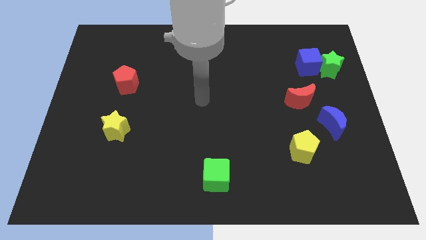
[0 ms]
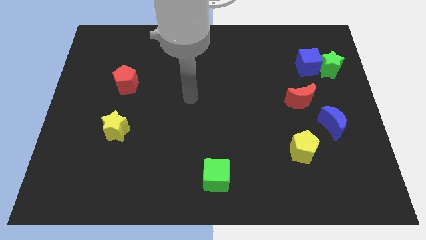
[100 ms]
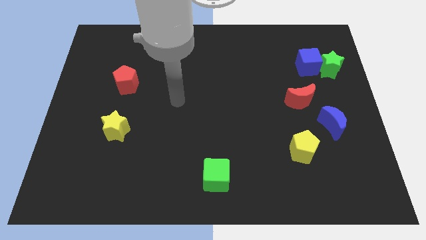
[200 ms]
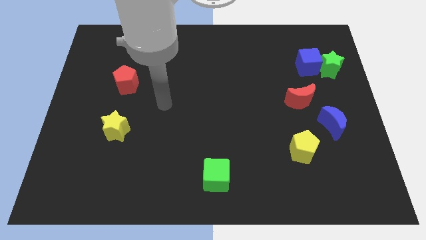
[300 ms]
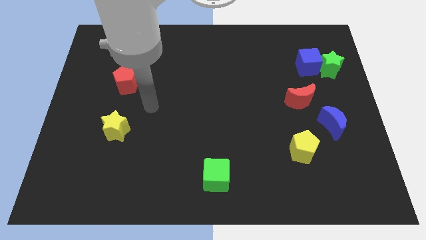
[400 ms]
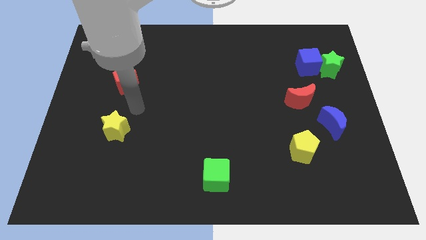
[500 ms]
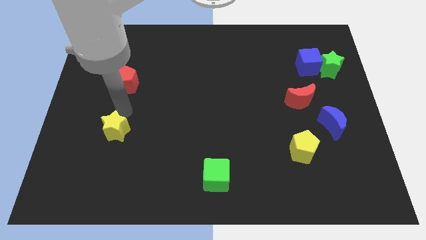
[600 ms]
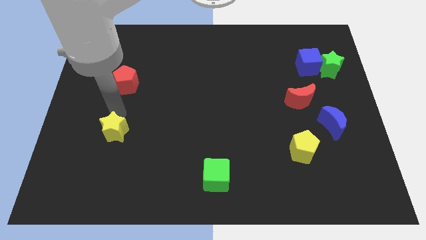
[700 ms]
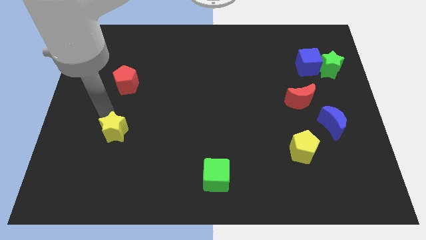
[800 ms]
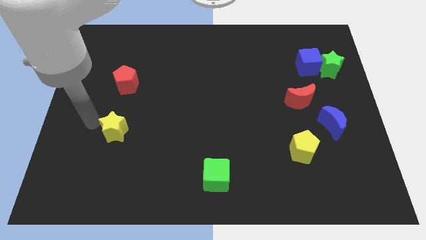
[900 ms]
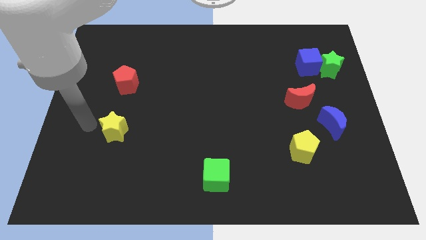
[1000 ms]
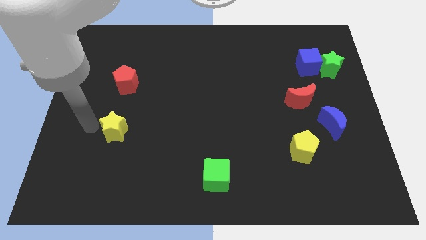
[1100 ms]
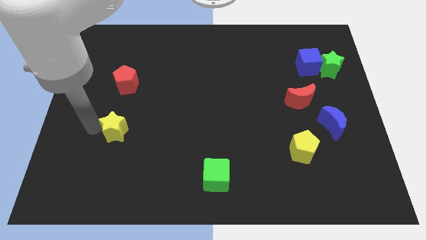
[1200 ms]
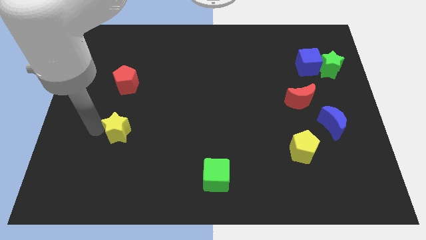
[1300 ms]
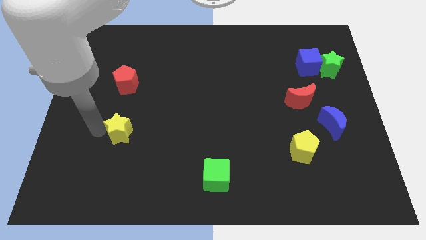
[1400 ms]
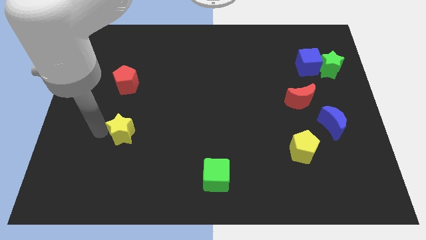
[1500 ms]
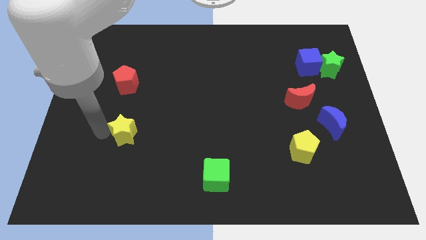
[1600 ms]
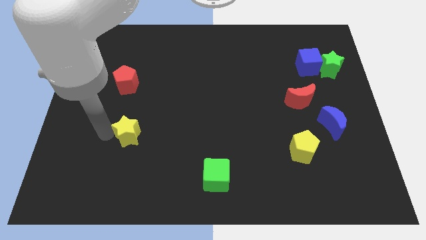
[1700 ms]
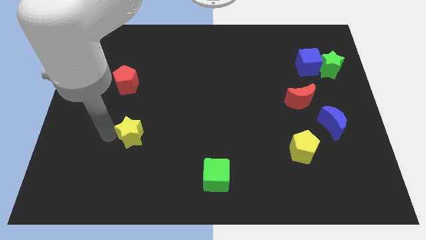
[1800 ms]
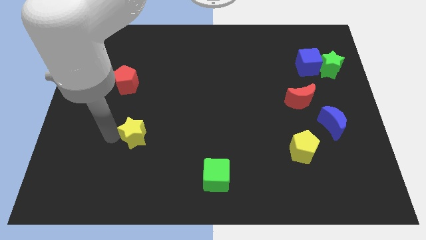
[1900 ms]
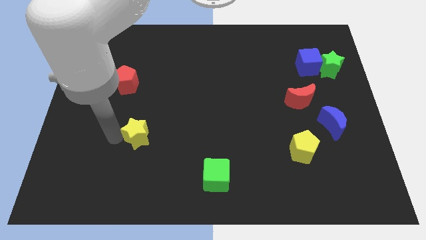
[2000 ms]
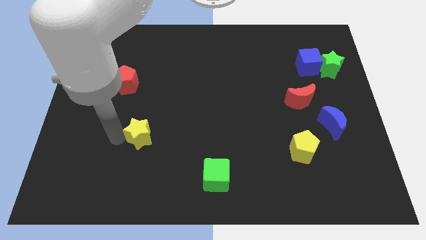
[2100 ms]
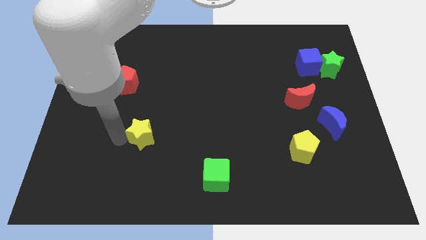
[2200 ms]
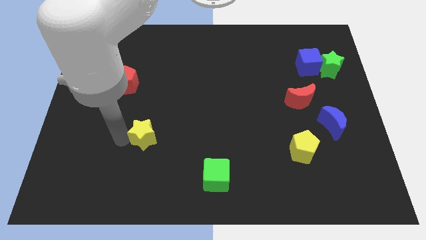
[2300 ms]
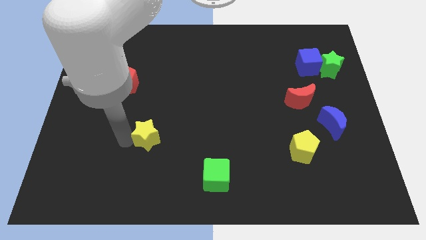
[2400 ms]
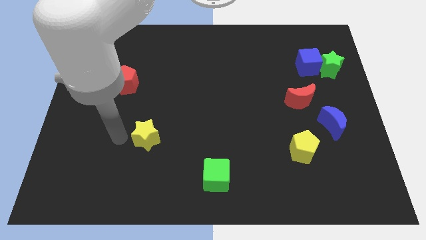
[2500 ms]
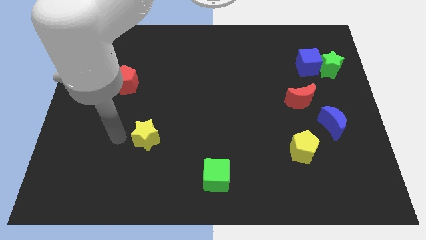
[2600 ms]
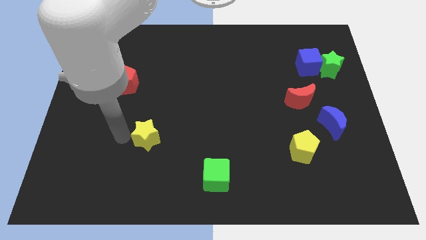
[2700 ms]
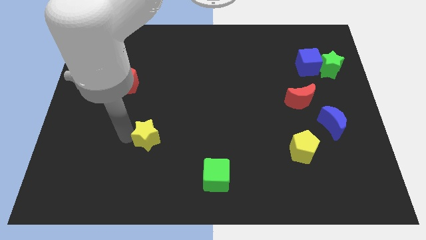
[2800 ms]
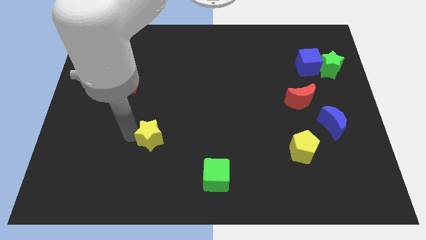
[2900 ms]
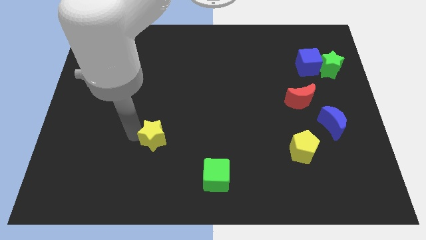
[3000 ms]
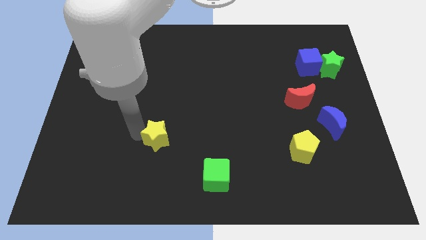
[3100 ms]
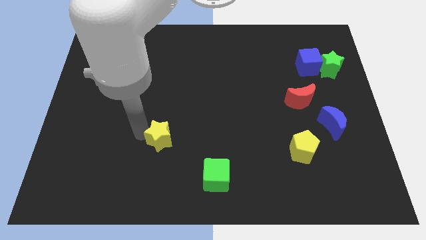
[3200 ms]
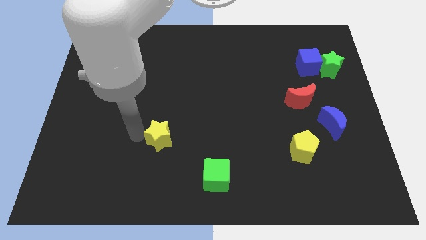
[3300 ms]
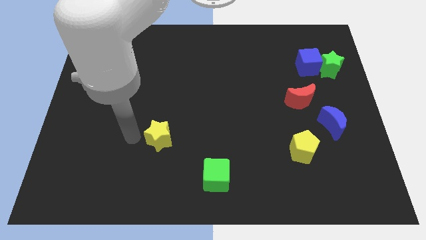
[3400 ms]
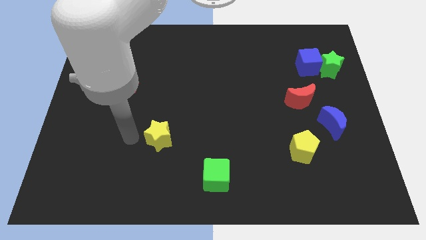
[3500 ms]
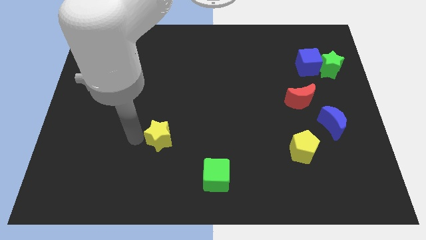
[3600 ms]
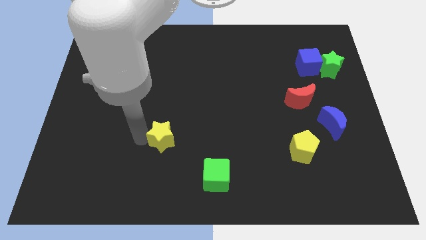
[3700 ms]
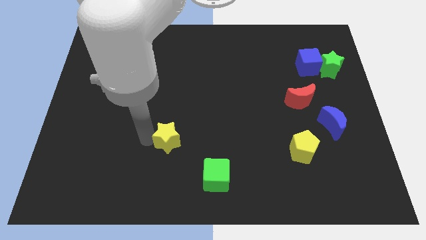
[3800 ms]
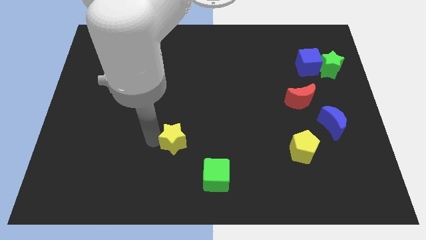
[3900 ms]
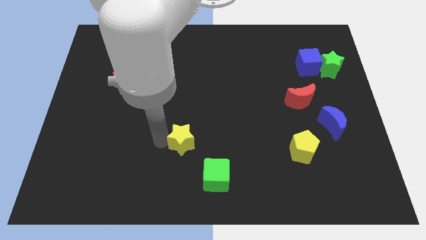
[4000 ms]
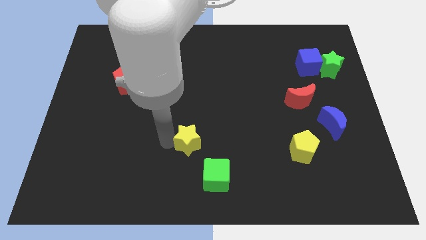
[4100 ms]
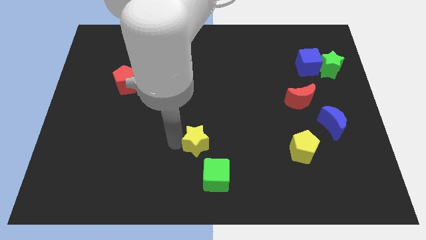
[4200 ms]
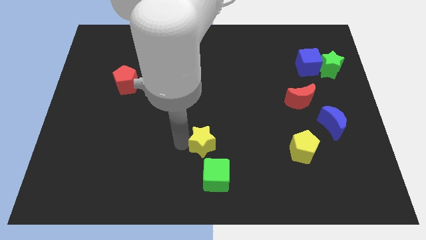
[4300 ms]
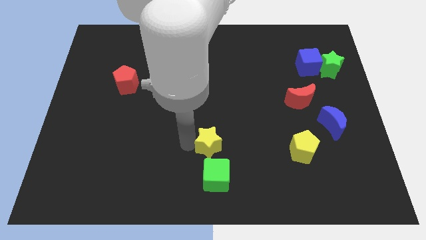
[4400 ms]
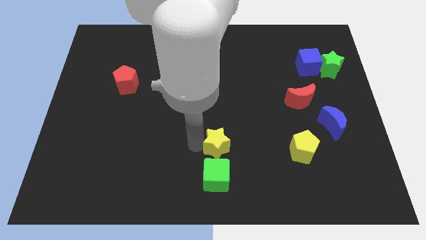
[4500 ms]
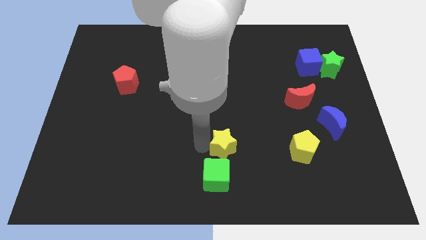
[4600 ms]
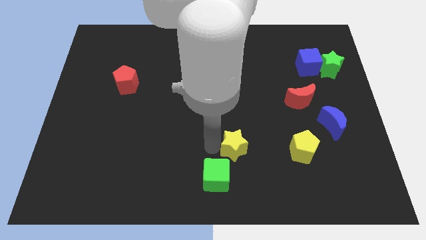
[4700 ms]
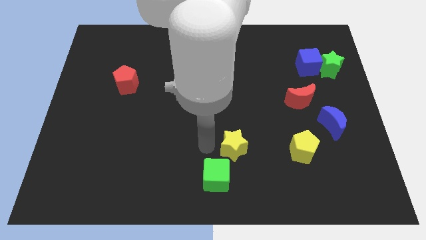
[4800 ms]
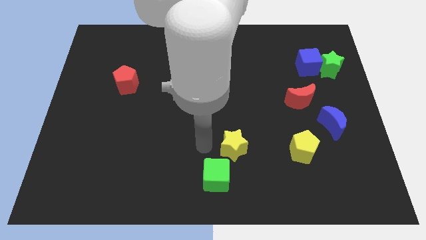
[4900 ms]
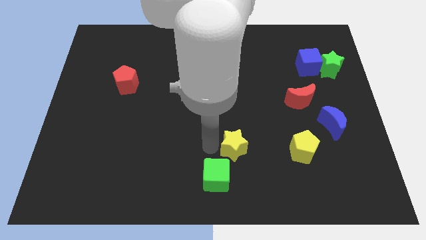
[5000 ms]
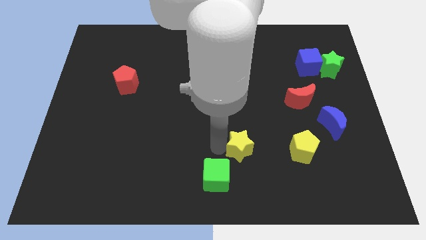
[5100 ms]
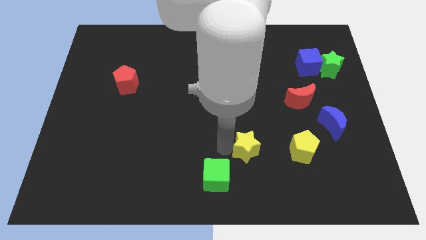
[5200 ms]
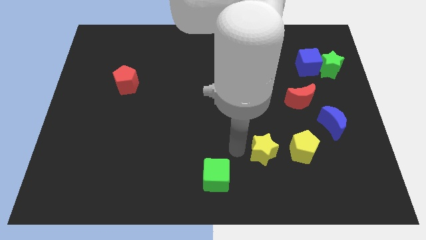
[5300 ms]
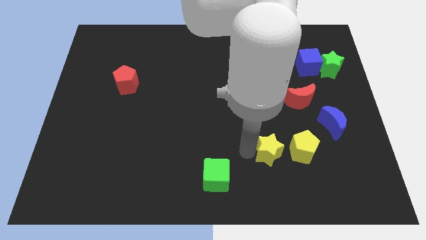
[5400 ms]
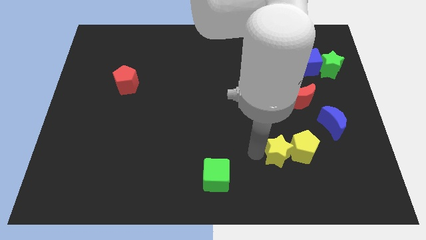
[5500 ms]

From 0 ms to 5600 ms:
put the yellow star to the yellow pentagon

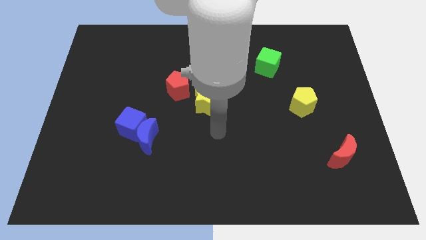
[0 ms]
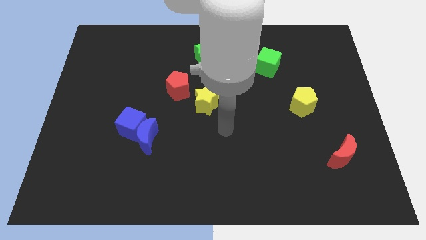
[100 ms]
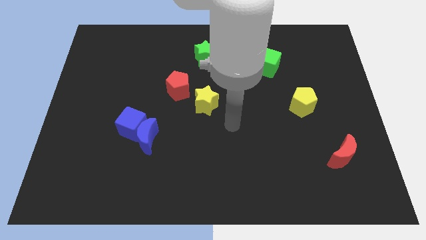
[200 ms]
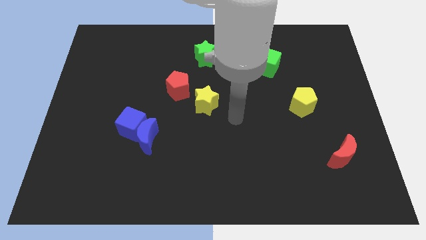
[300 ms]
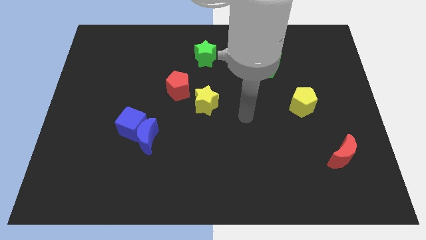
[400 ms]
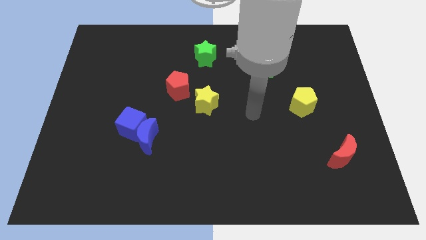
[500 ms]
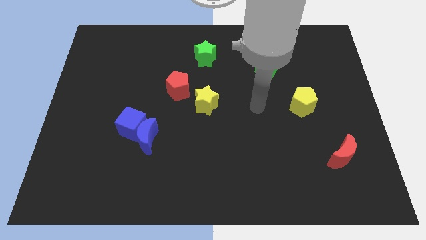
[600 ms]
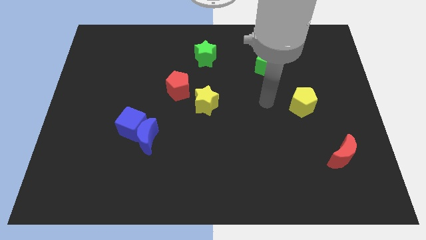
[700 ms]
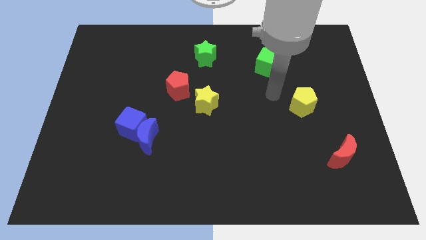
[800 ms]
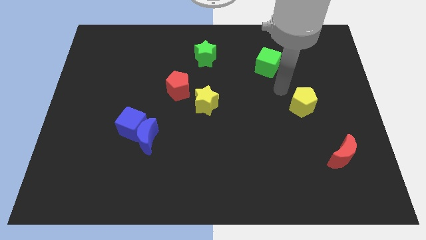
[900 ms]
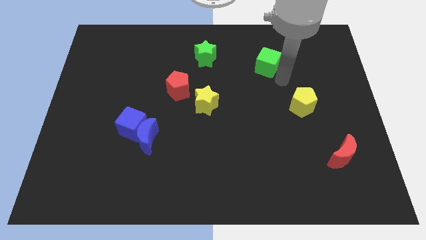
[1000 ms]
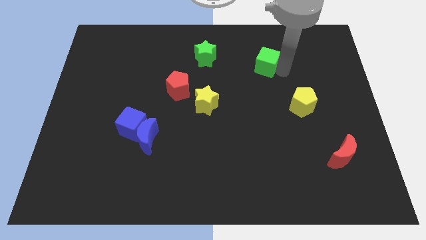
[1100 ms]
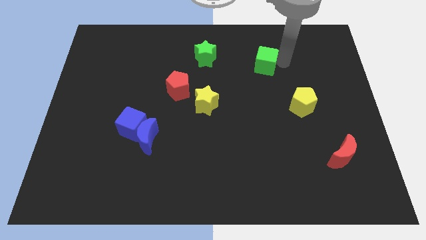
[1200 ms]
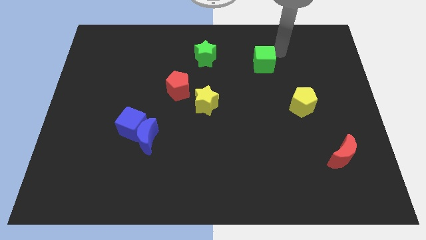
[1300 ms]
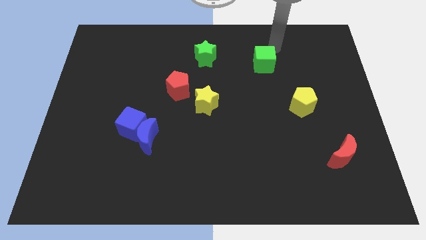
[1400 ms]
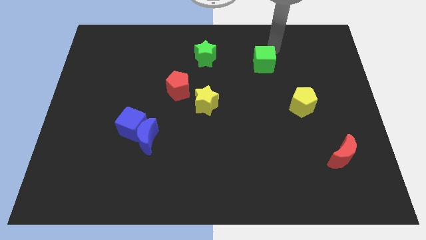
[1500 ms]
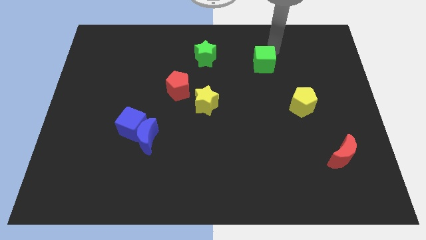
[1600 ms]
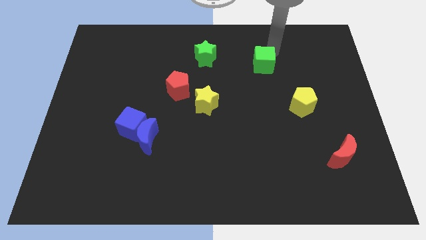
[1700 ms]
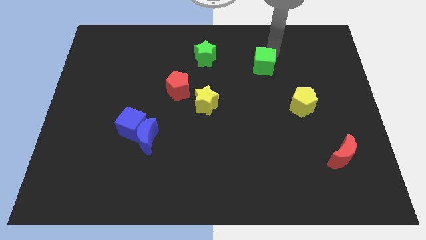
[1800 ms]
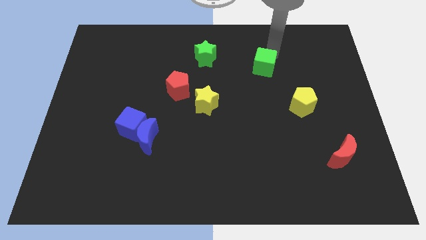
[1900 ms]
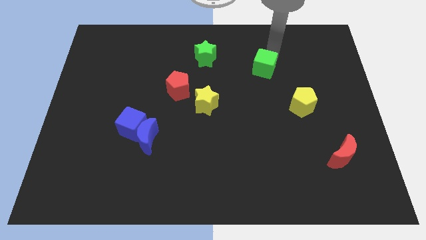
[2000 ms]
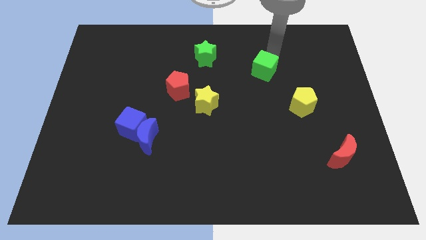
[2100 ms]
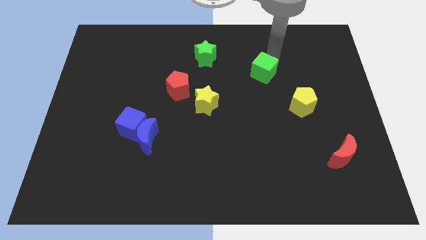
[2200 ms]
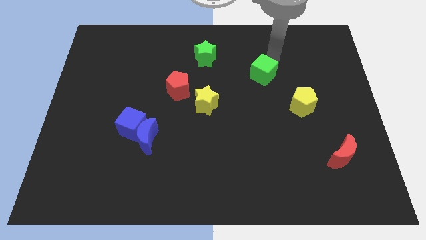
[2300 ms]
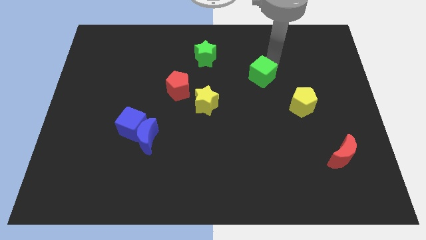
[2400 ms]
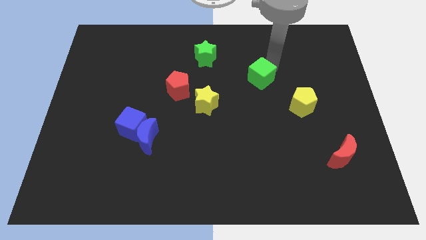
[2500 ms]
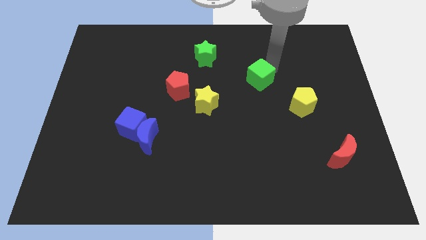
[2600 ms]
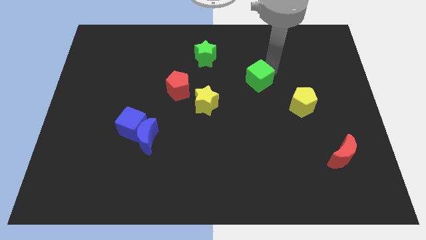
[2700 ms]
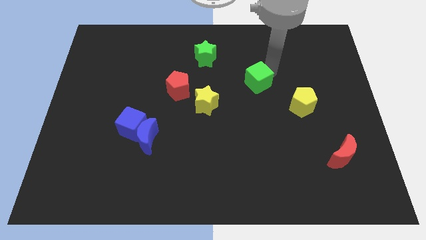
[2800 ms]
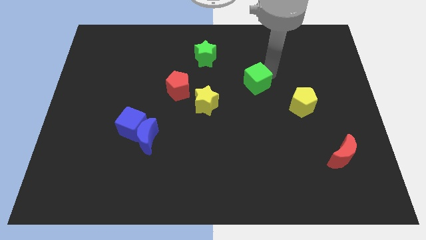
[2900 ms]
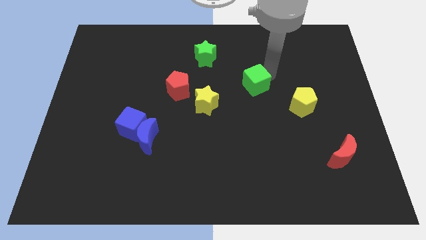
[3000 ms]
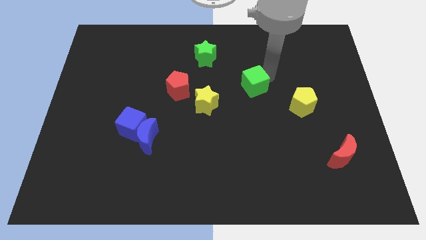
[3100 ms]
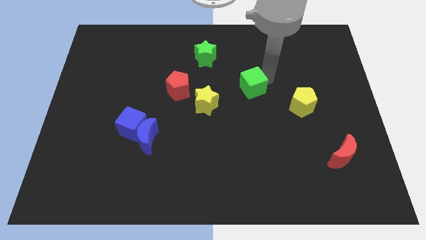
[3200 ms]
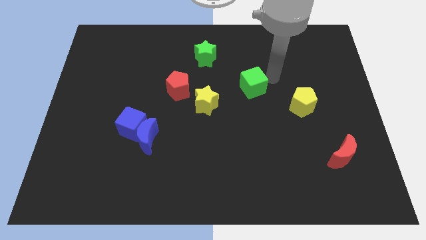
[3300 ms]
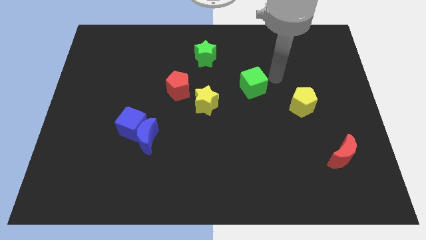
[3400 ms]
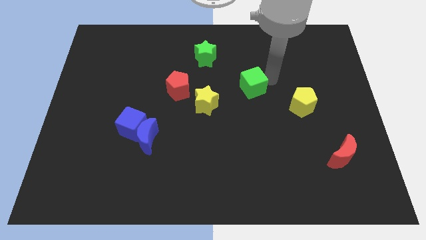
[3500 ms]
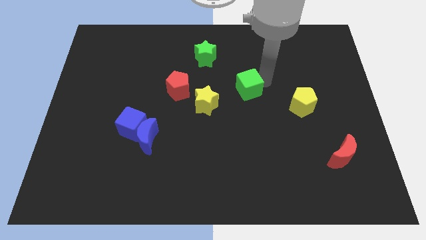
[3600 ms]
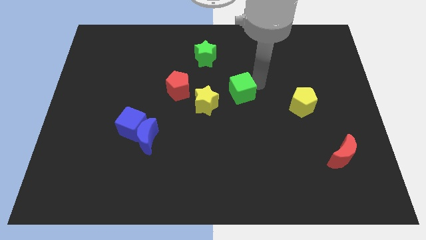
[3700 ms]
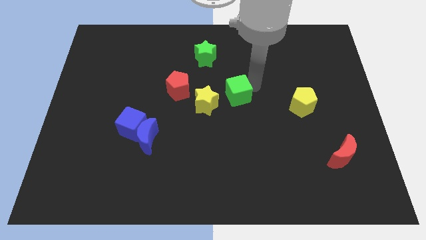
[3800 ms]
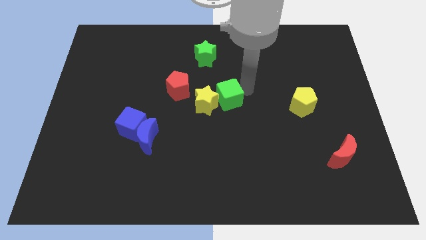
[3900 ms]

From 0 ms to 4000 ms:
move the green cube to the yellow star
